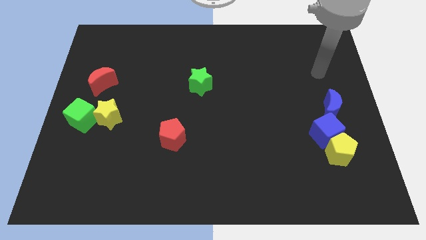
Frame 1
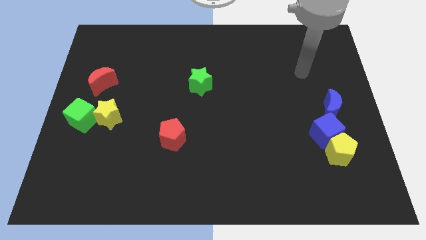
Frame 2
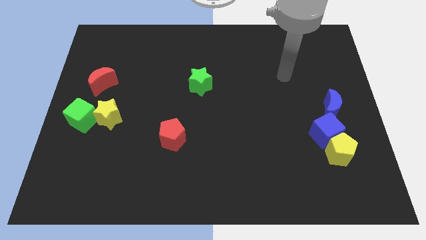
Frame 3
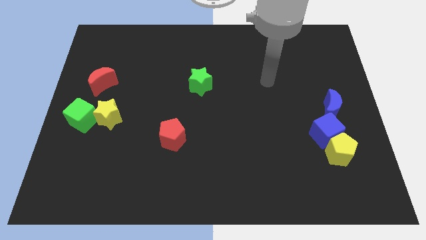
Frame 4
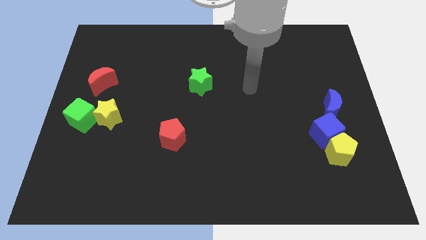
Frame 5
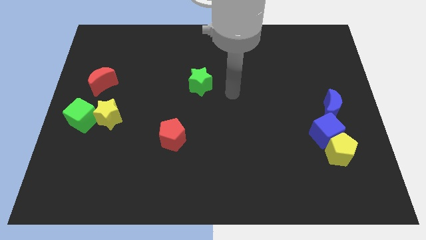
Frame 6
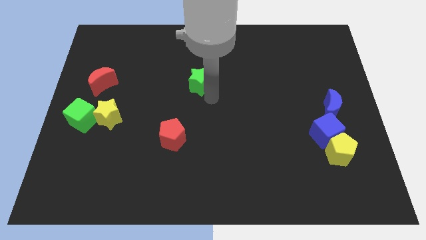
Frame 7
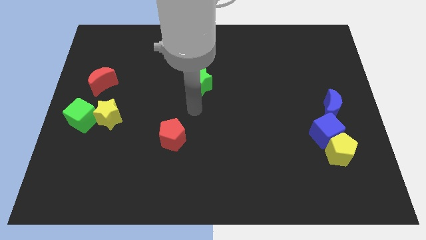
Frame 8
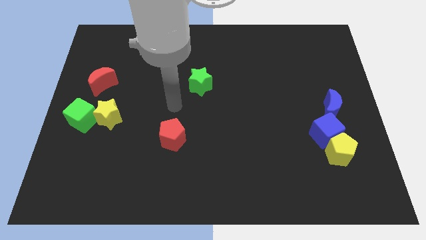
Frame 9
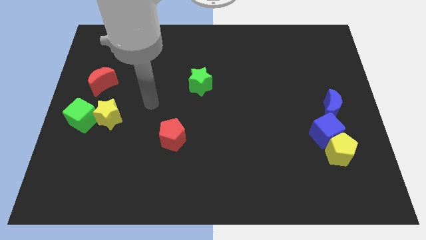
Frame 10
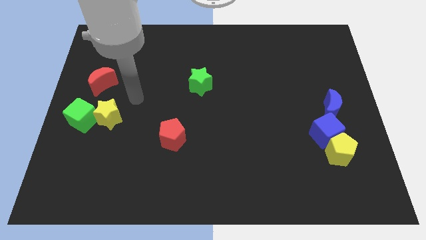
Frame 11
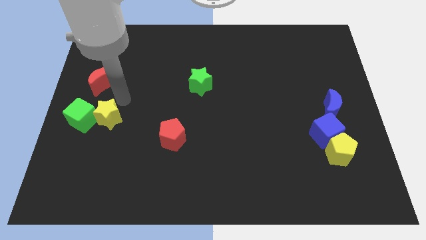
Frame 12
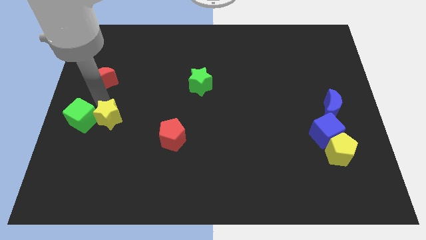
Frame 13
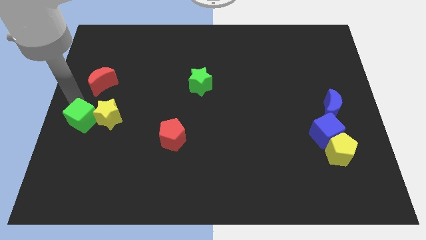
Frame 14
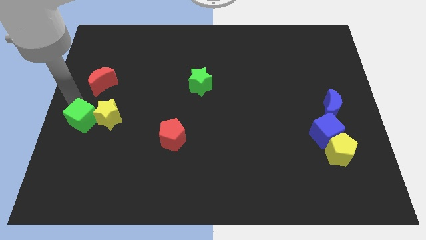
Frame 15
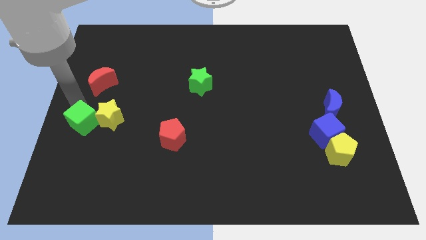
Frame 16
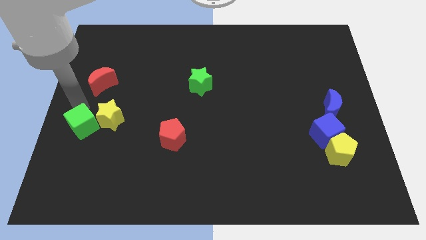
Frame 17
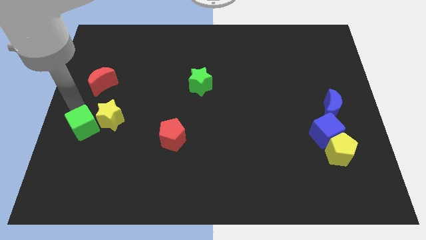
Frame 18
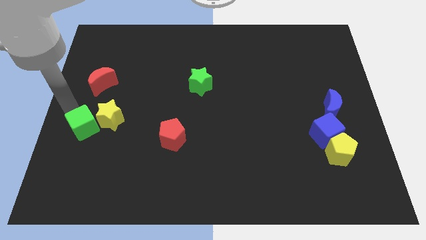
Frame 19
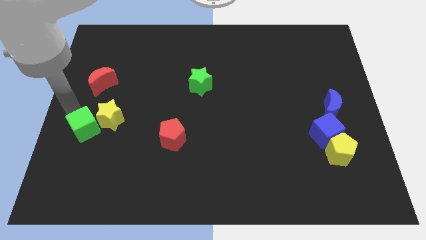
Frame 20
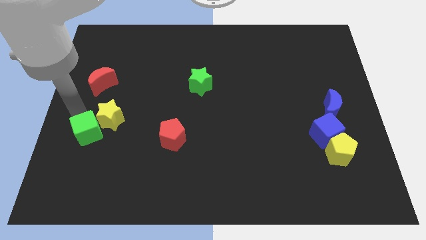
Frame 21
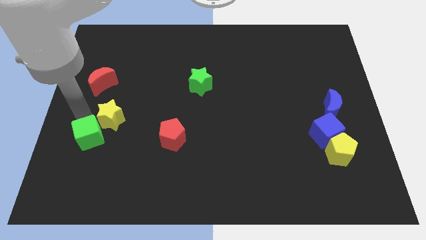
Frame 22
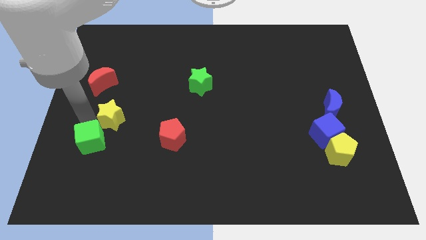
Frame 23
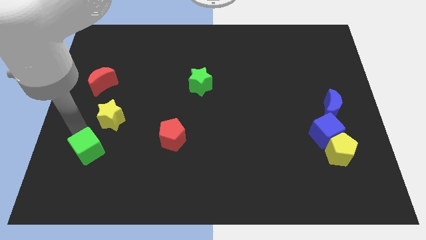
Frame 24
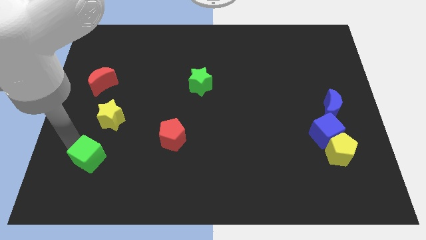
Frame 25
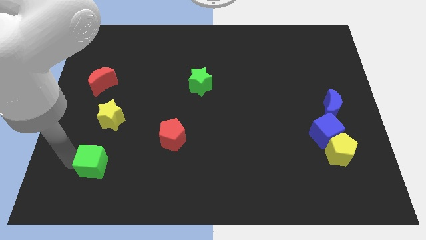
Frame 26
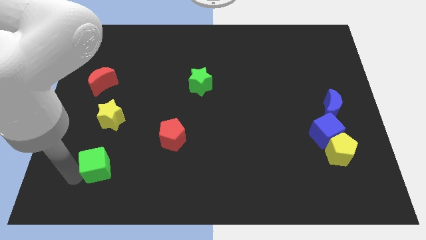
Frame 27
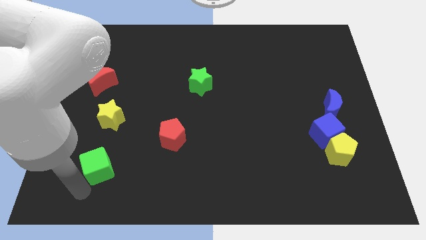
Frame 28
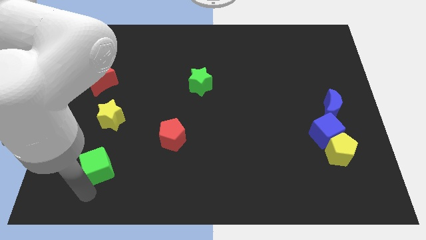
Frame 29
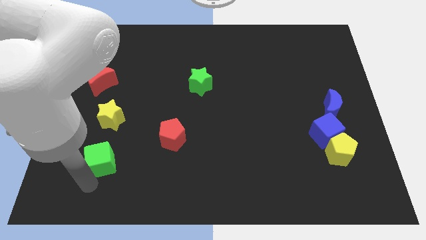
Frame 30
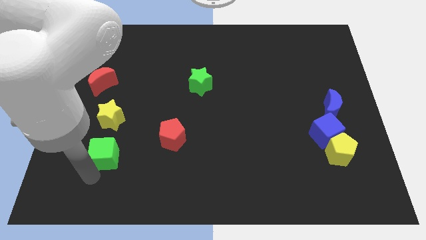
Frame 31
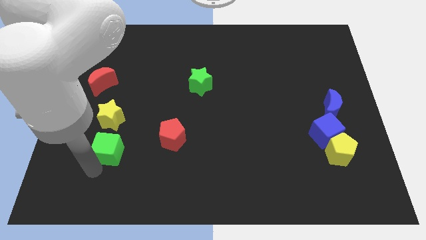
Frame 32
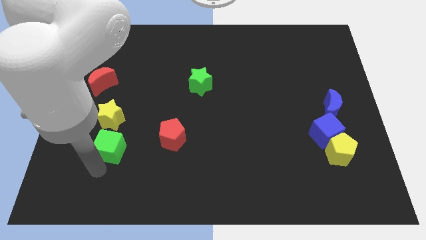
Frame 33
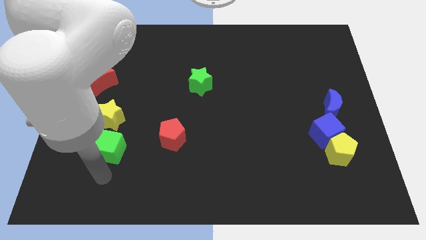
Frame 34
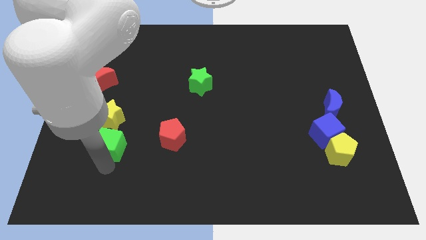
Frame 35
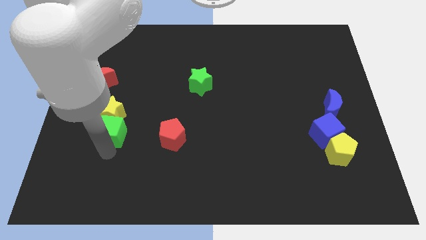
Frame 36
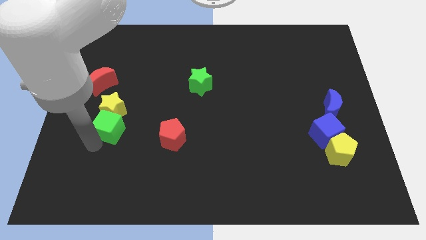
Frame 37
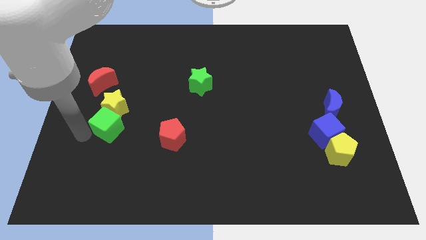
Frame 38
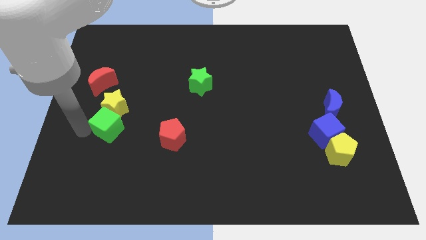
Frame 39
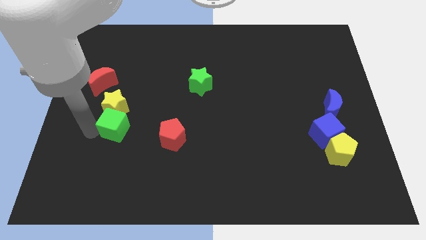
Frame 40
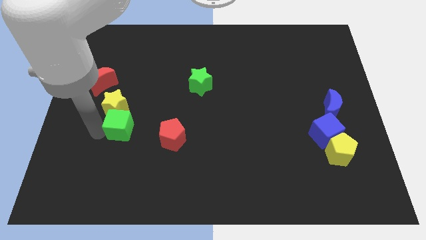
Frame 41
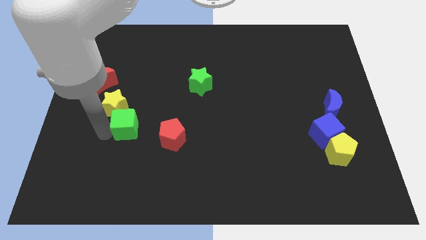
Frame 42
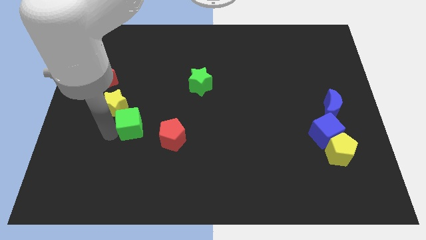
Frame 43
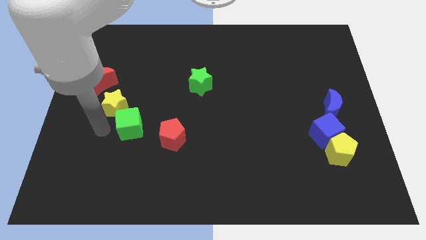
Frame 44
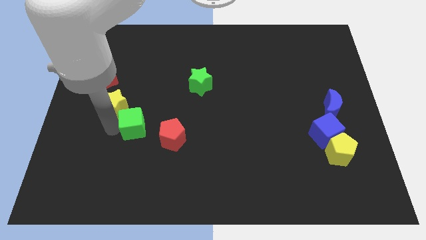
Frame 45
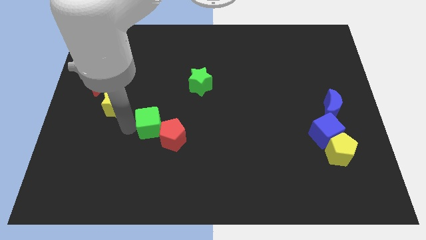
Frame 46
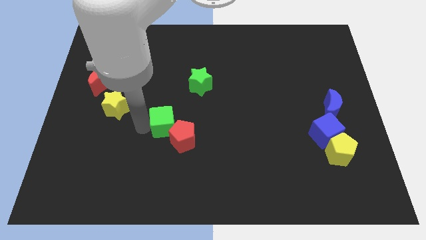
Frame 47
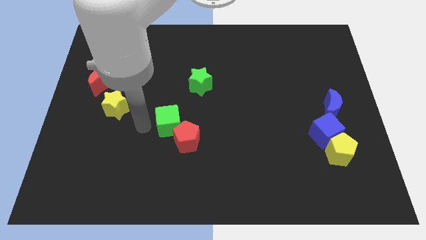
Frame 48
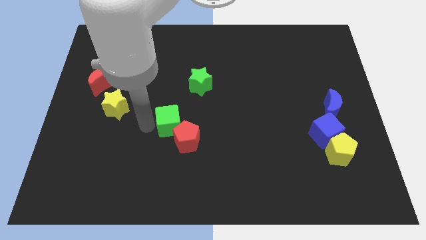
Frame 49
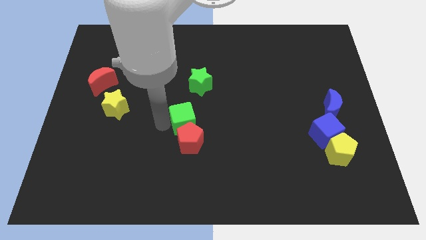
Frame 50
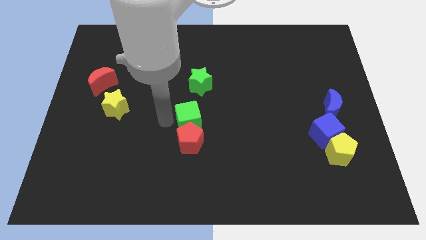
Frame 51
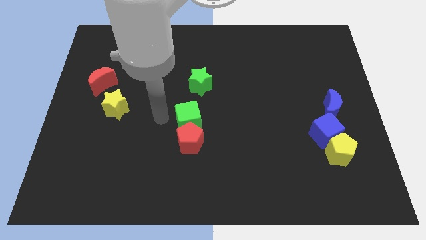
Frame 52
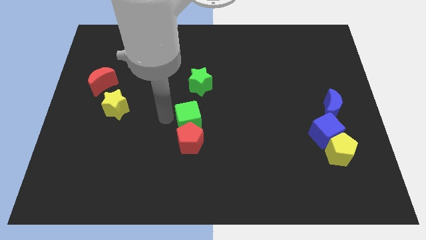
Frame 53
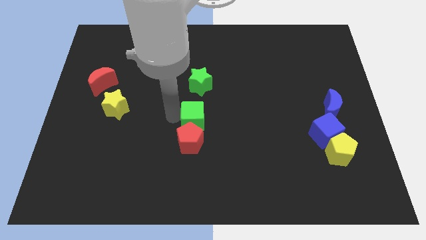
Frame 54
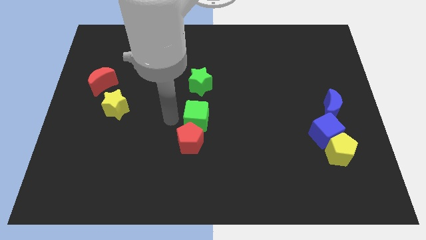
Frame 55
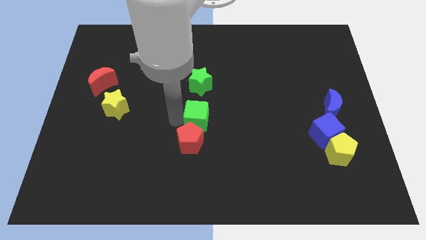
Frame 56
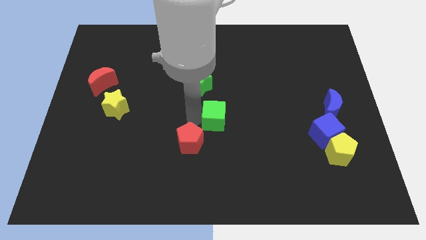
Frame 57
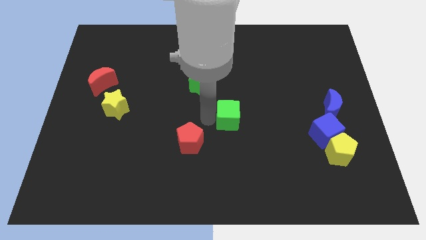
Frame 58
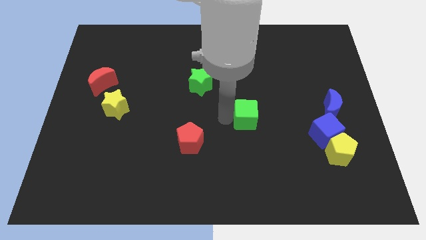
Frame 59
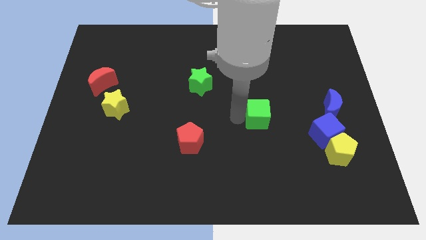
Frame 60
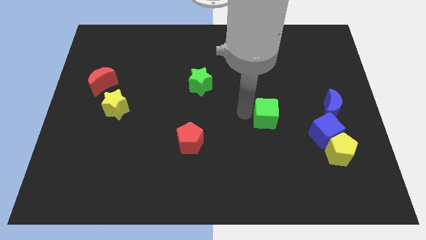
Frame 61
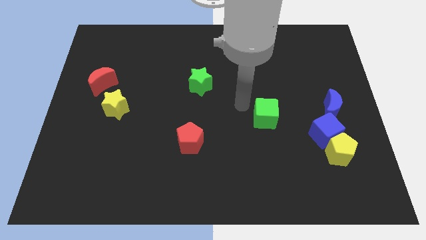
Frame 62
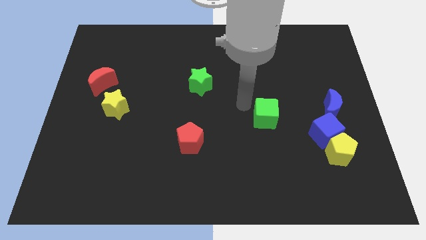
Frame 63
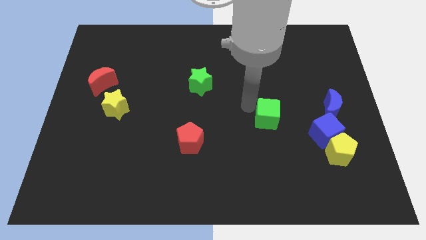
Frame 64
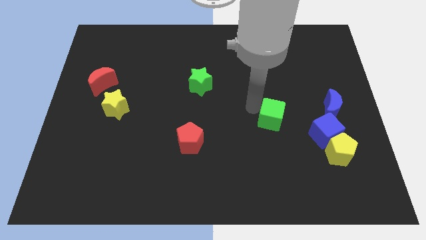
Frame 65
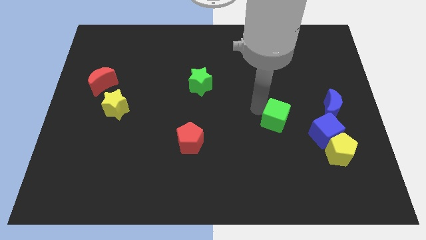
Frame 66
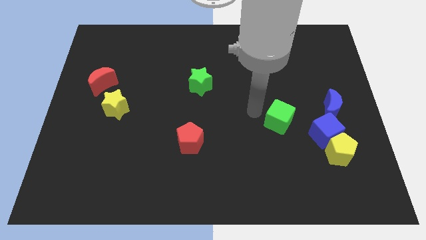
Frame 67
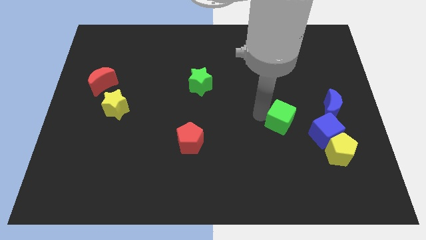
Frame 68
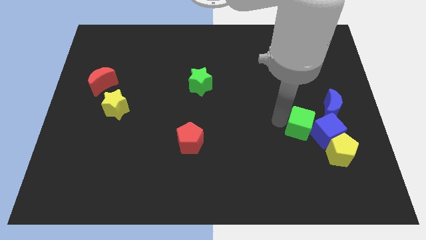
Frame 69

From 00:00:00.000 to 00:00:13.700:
move the green cube to the blue cube
